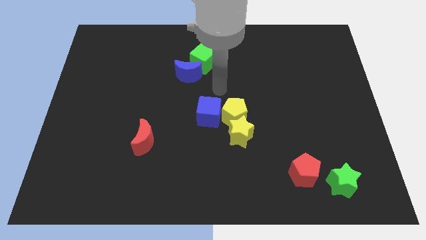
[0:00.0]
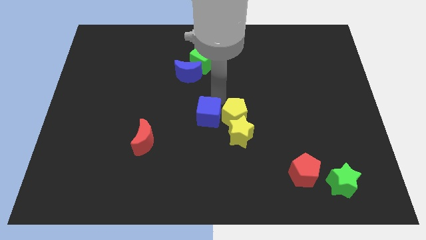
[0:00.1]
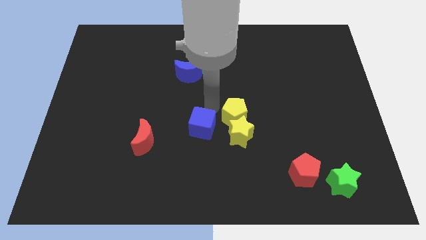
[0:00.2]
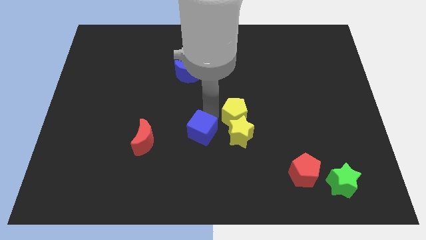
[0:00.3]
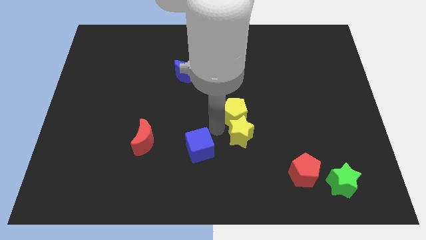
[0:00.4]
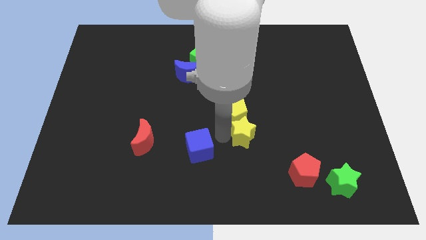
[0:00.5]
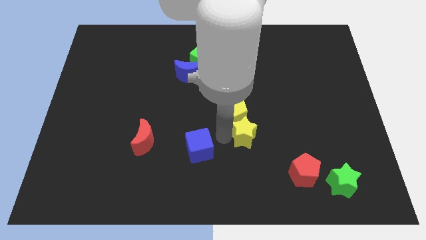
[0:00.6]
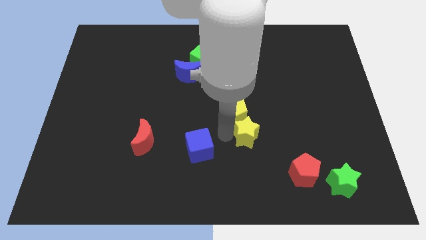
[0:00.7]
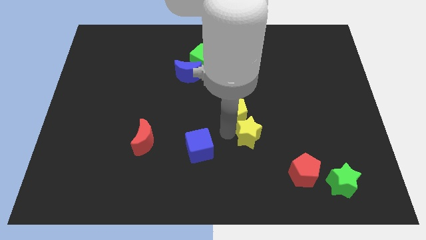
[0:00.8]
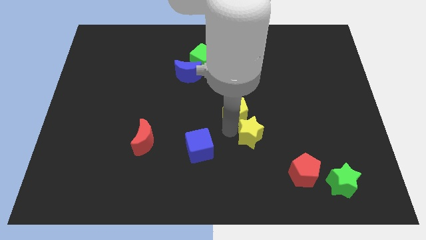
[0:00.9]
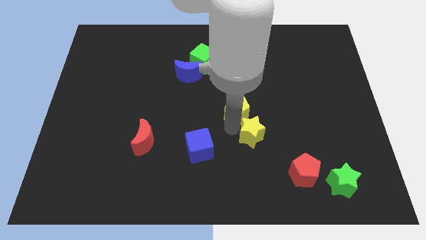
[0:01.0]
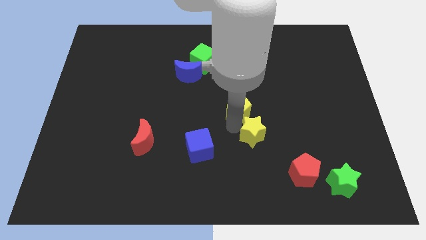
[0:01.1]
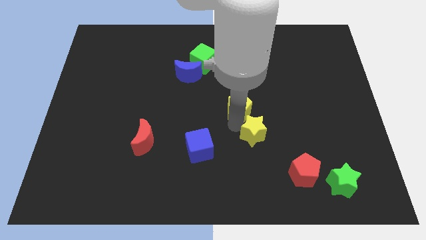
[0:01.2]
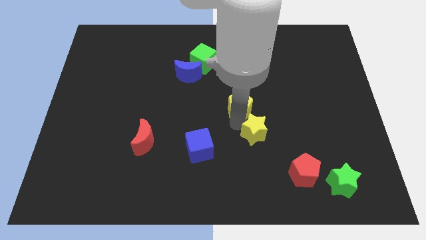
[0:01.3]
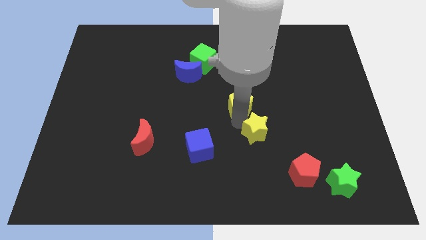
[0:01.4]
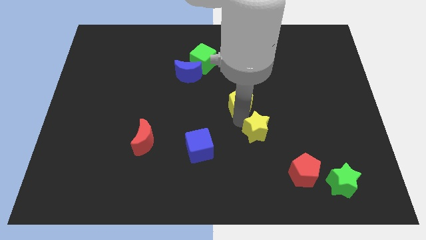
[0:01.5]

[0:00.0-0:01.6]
move the yellow pentagon away from the yellow star and blue cube

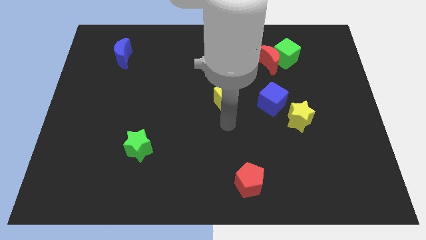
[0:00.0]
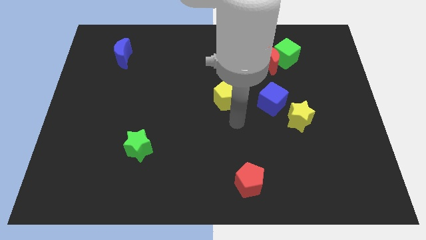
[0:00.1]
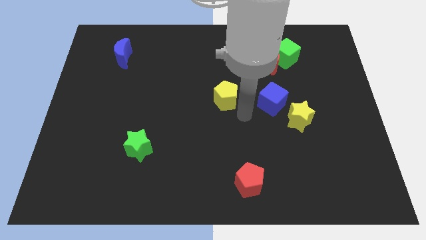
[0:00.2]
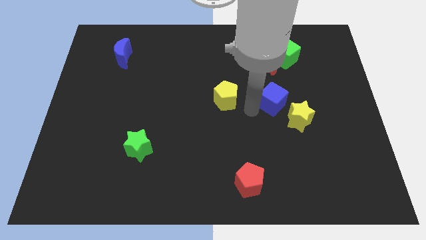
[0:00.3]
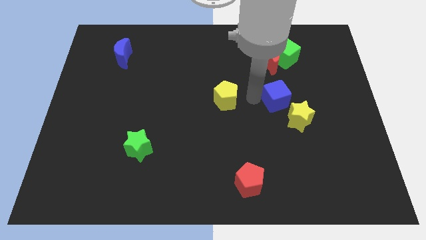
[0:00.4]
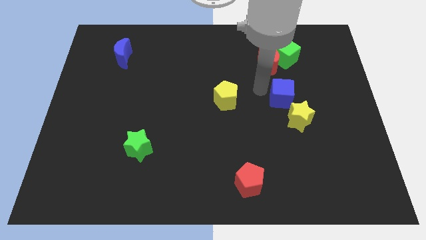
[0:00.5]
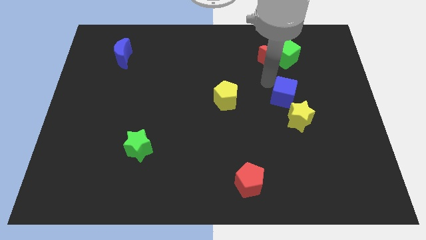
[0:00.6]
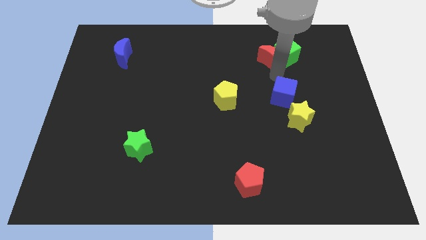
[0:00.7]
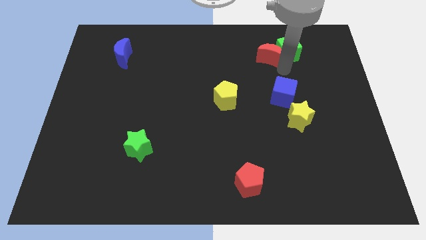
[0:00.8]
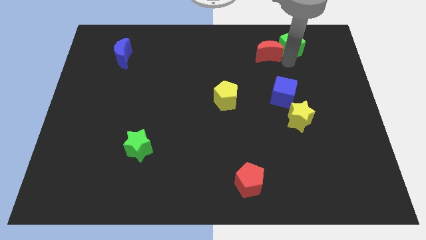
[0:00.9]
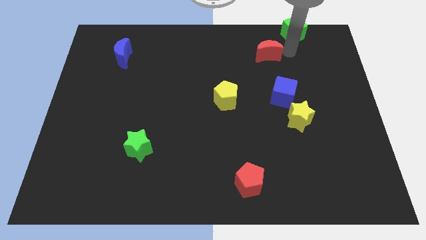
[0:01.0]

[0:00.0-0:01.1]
separate the red moon from the green cube

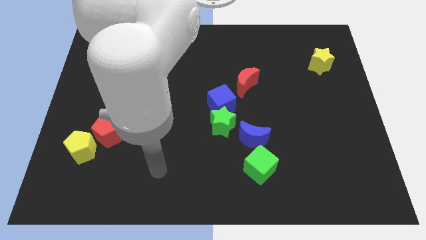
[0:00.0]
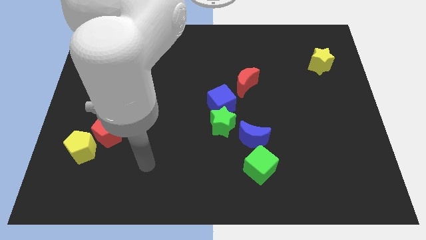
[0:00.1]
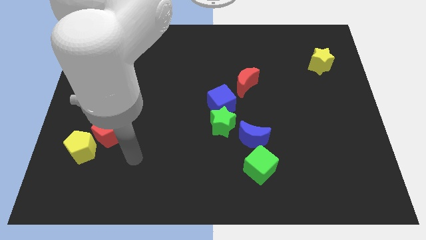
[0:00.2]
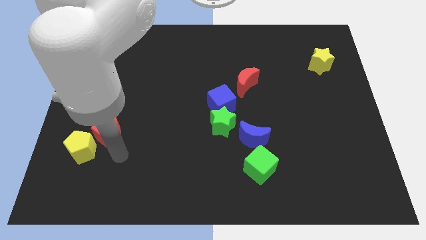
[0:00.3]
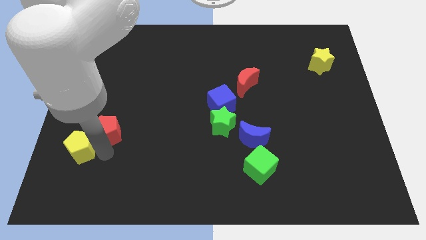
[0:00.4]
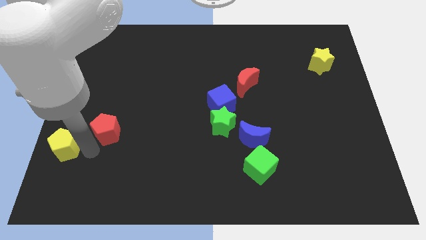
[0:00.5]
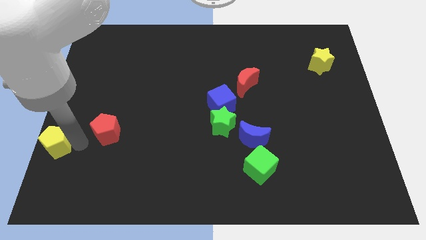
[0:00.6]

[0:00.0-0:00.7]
separate the red pentagon from the yellow pentagon

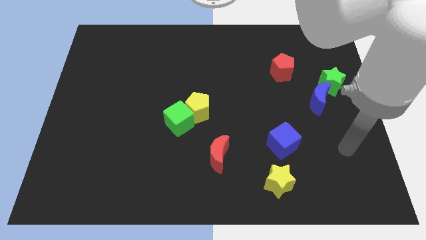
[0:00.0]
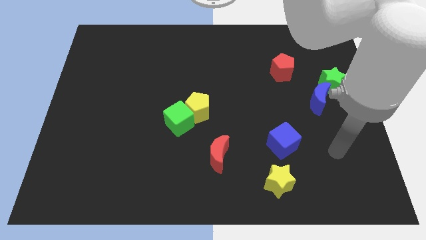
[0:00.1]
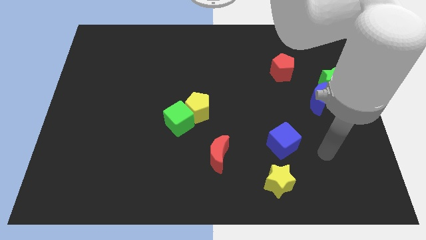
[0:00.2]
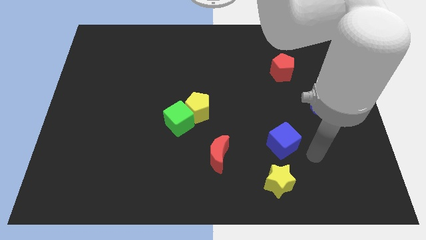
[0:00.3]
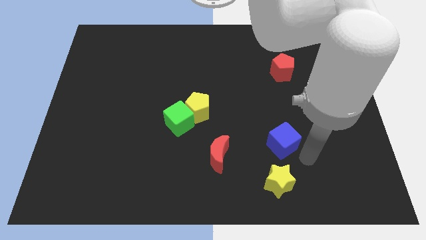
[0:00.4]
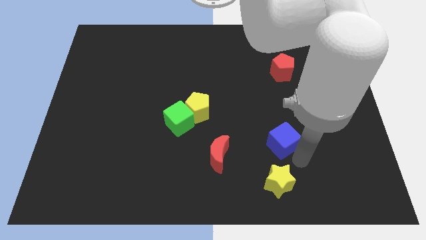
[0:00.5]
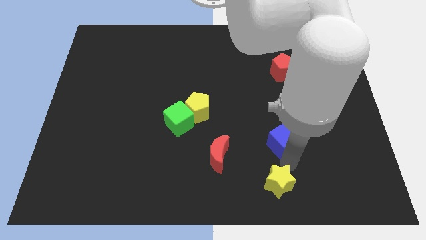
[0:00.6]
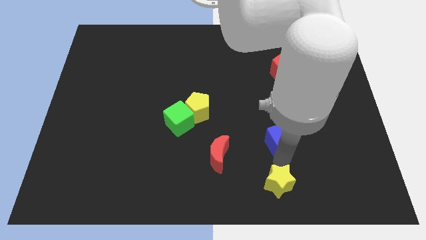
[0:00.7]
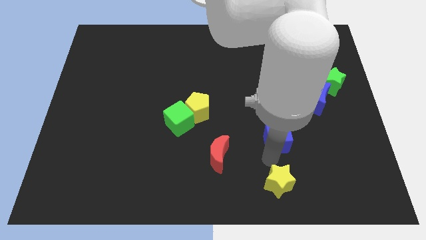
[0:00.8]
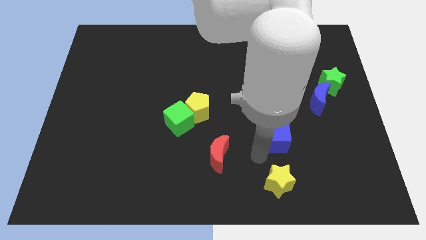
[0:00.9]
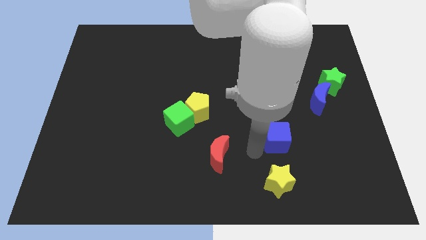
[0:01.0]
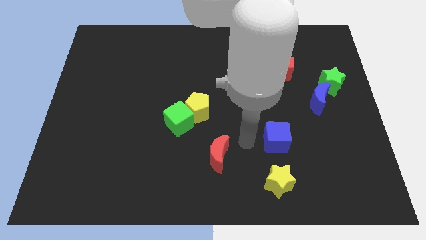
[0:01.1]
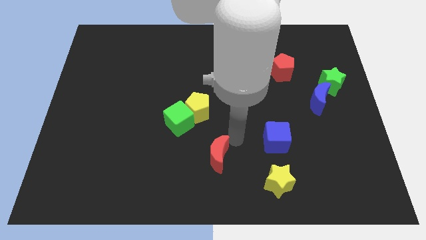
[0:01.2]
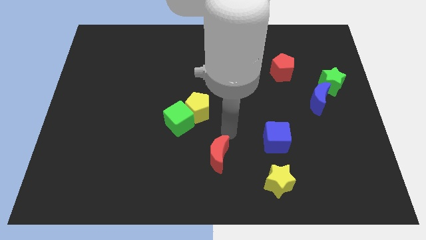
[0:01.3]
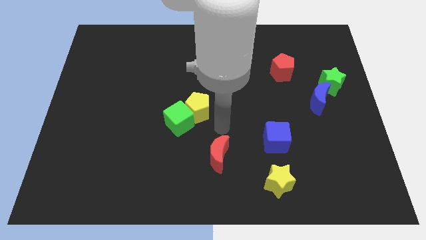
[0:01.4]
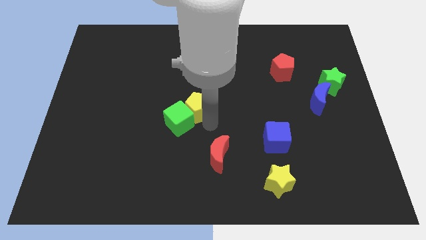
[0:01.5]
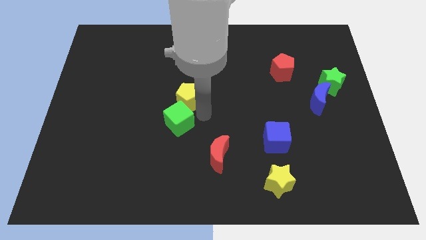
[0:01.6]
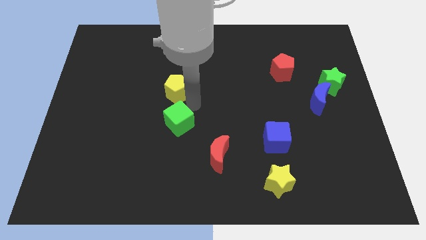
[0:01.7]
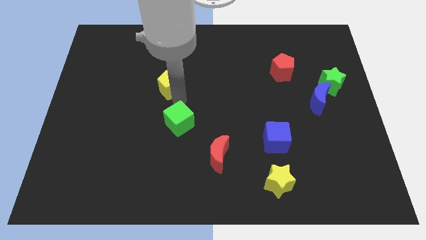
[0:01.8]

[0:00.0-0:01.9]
separate the green cube from the yellow pentagon

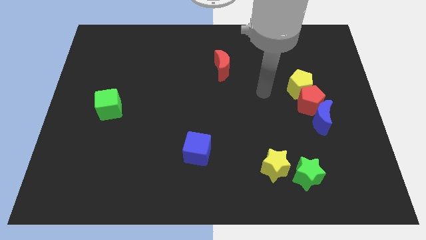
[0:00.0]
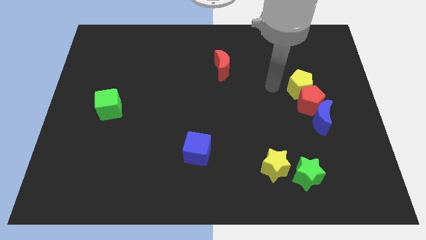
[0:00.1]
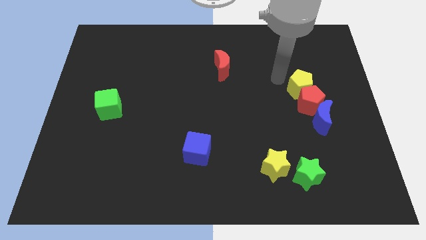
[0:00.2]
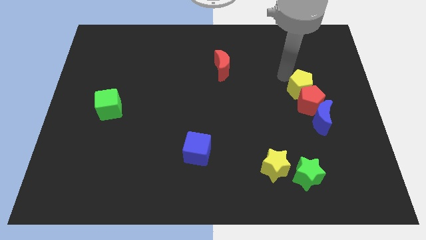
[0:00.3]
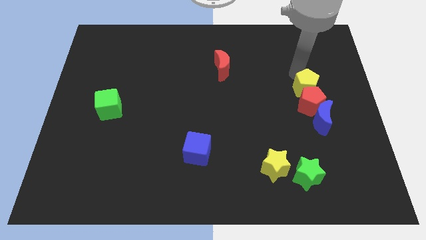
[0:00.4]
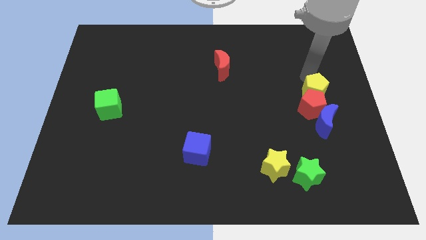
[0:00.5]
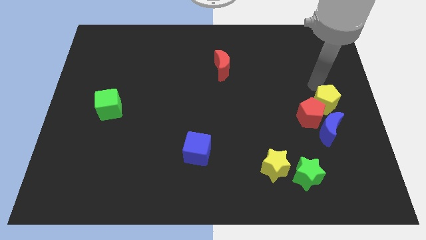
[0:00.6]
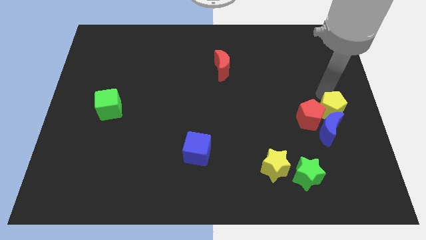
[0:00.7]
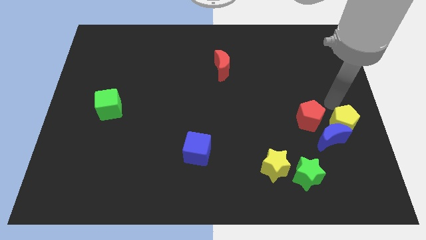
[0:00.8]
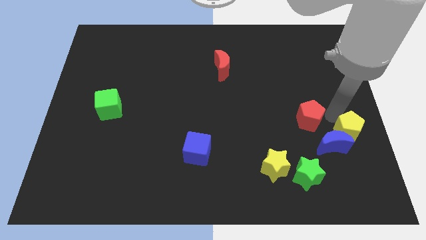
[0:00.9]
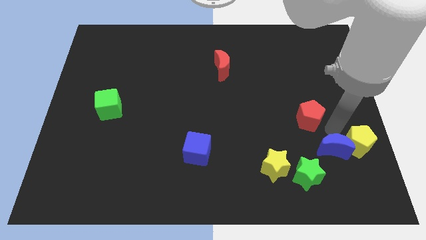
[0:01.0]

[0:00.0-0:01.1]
separate the red pentagon from the yellow pentagon and blue moon

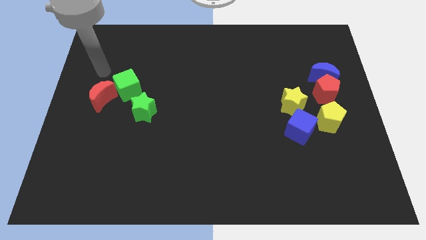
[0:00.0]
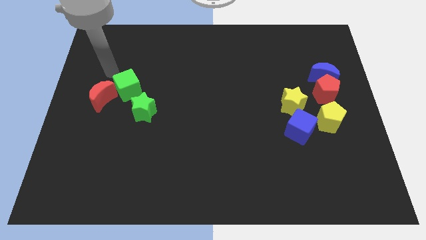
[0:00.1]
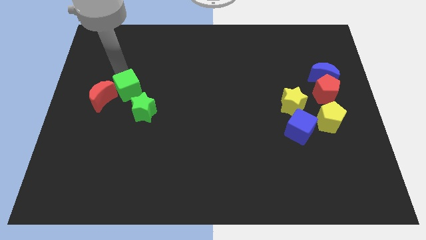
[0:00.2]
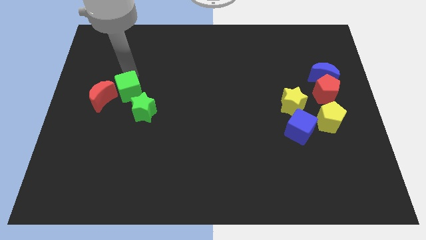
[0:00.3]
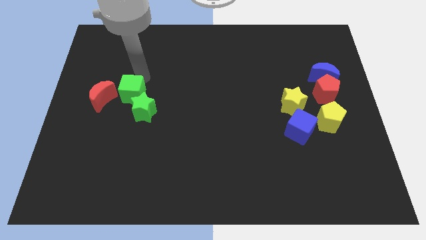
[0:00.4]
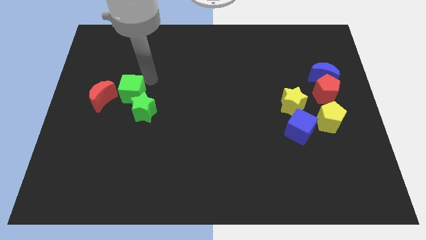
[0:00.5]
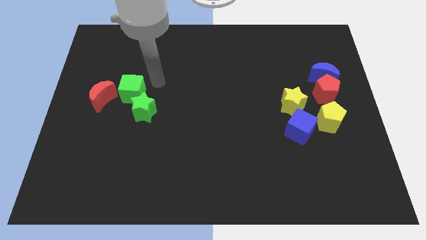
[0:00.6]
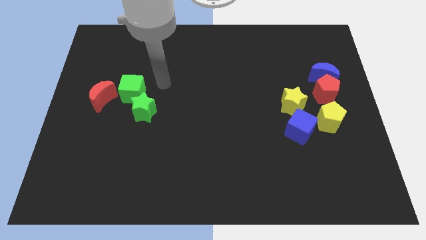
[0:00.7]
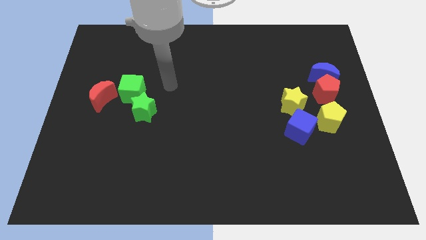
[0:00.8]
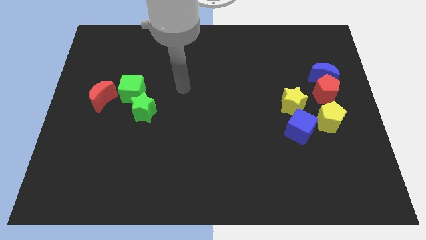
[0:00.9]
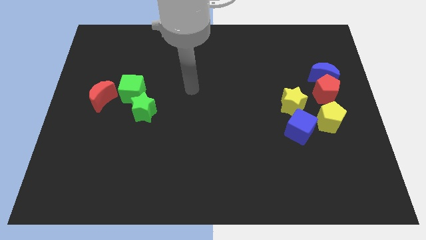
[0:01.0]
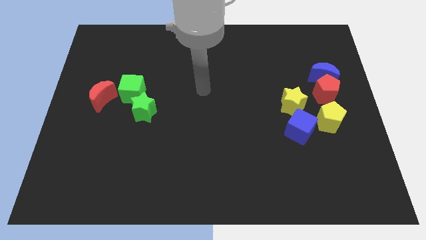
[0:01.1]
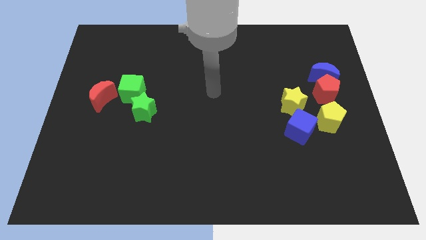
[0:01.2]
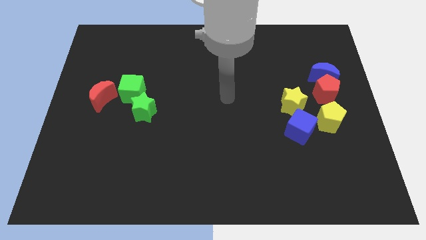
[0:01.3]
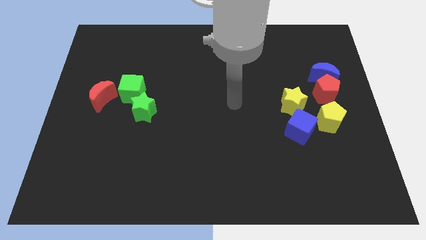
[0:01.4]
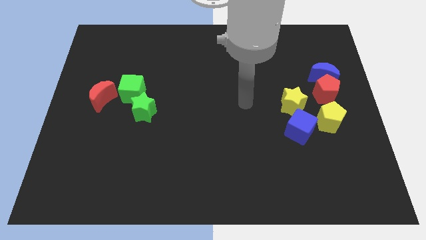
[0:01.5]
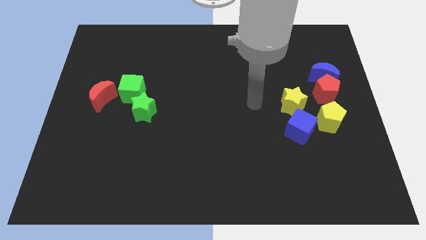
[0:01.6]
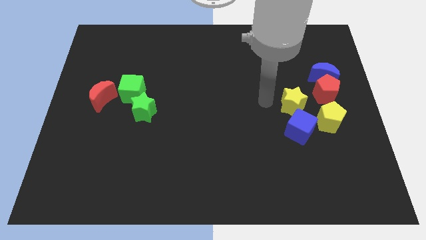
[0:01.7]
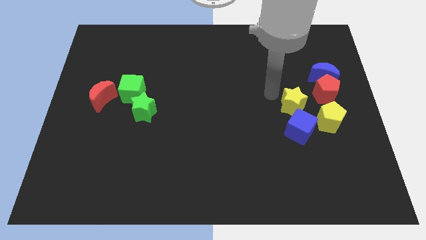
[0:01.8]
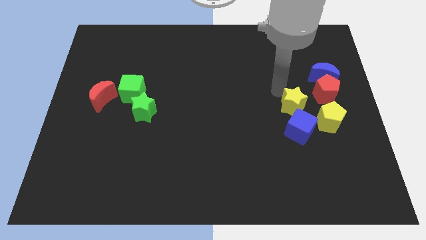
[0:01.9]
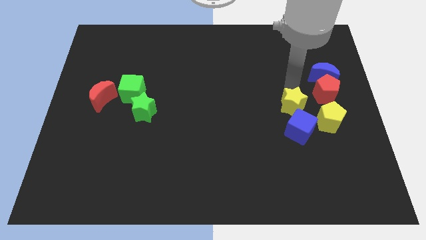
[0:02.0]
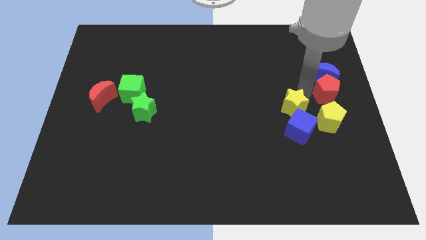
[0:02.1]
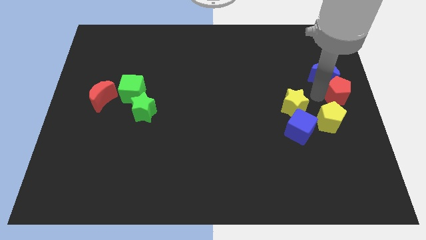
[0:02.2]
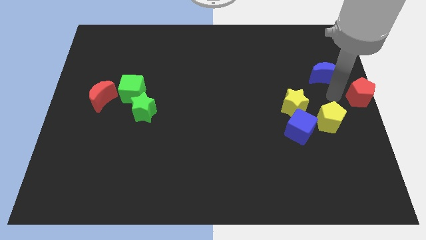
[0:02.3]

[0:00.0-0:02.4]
separate the blue moon from the red pentagon

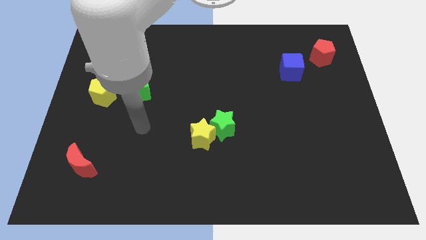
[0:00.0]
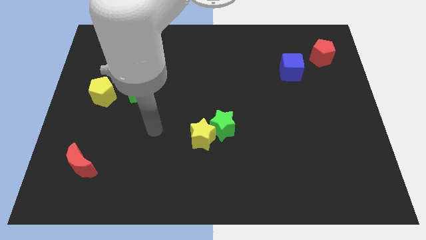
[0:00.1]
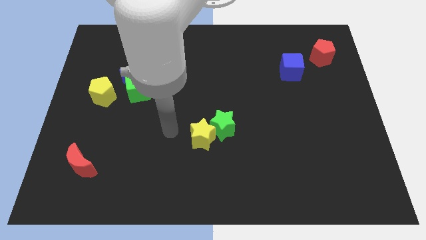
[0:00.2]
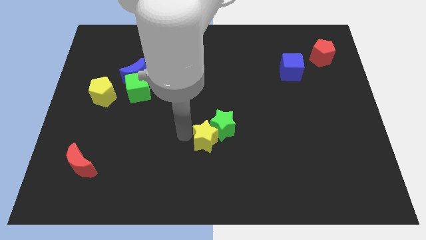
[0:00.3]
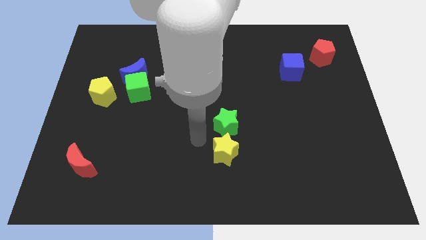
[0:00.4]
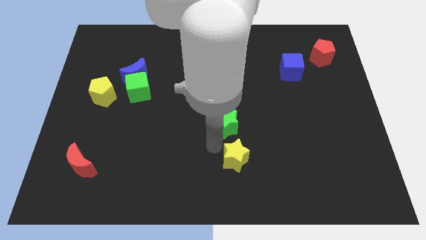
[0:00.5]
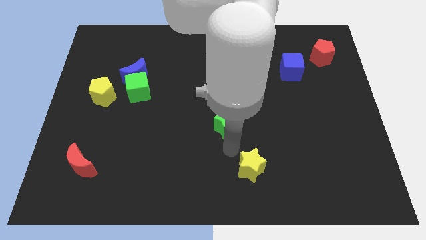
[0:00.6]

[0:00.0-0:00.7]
pull the green star apart from the yellow star
